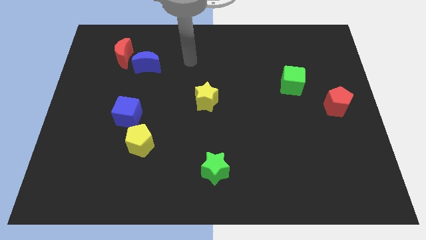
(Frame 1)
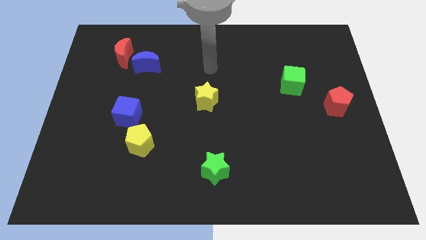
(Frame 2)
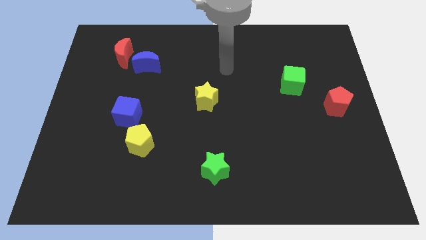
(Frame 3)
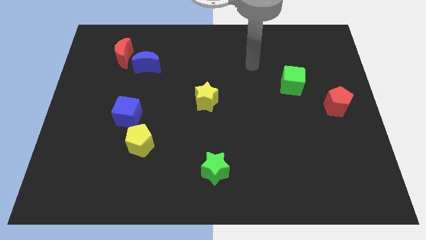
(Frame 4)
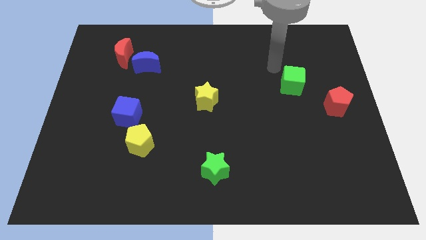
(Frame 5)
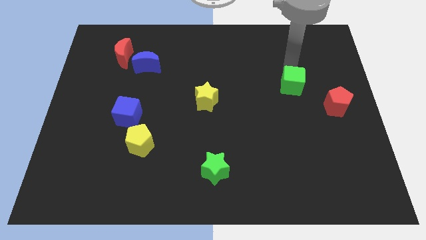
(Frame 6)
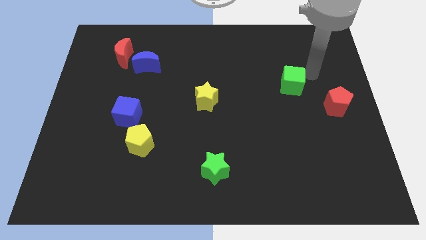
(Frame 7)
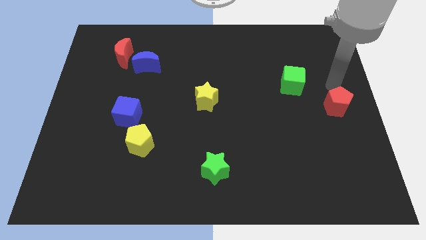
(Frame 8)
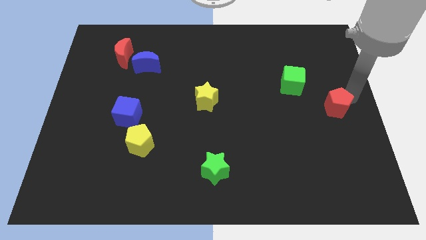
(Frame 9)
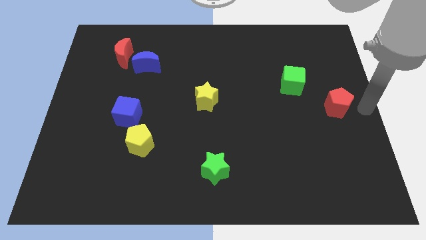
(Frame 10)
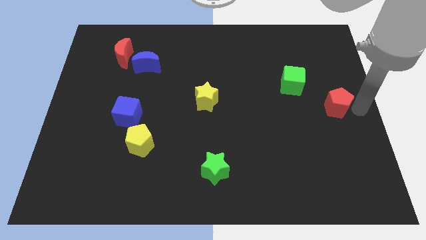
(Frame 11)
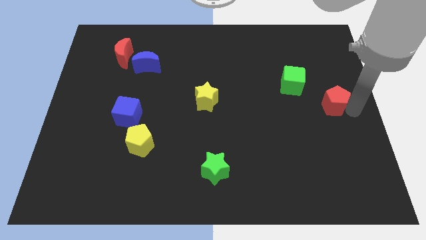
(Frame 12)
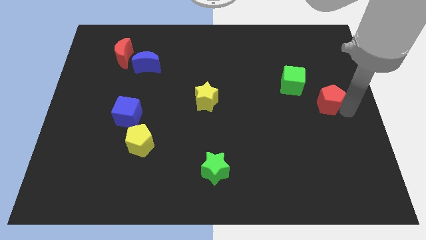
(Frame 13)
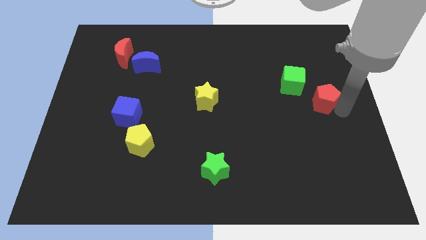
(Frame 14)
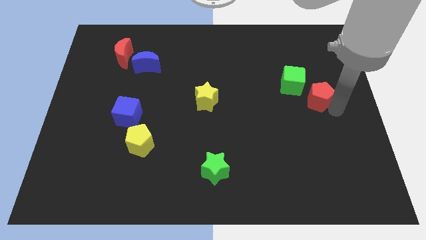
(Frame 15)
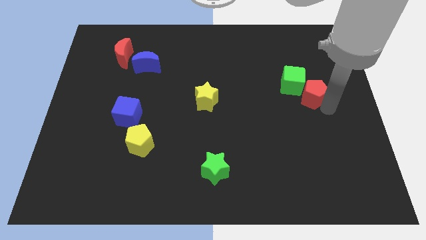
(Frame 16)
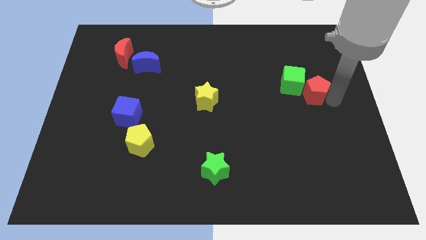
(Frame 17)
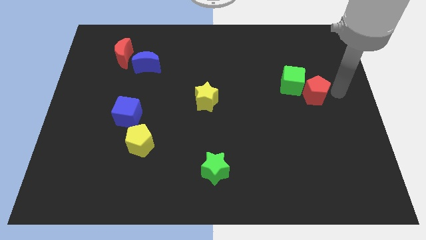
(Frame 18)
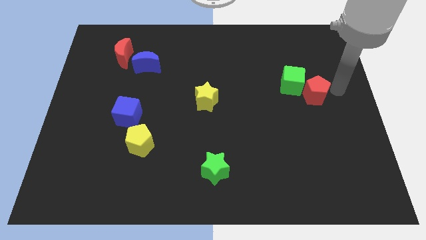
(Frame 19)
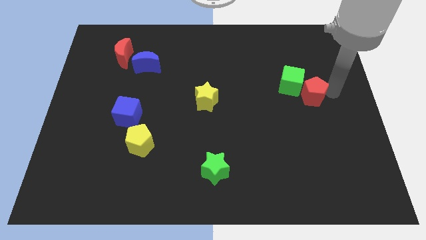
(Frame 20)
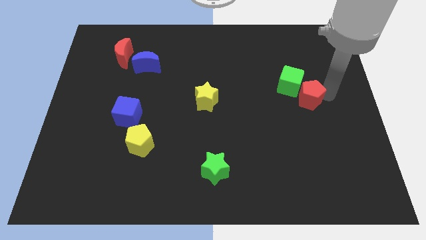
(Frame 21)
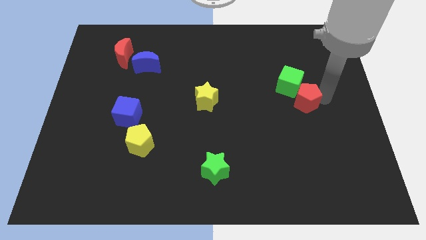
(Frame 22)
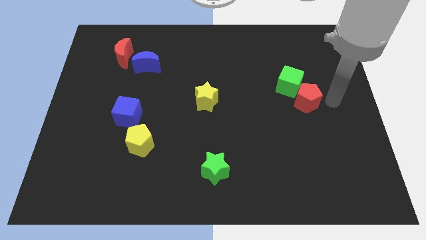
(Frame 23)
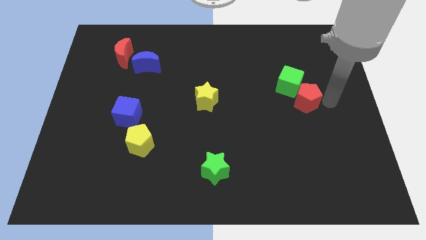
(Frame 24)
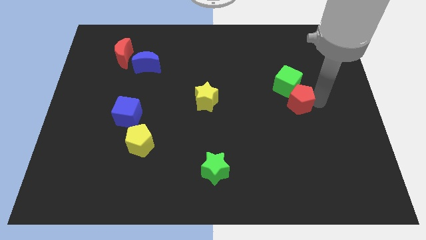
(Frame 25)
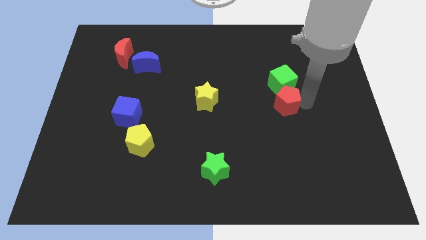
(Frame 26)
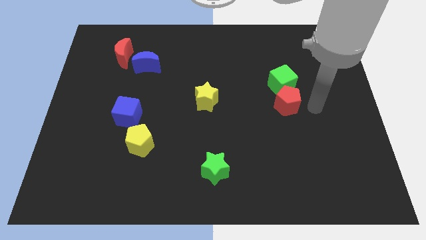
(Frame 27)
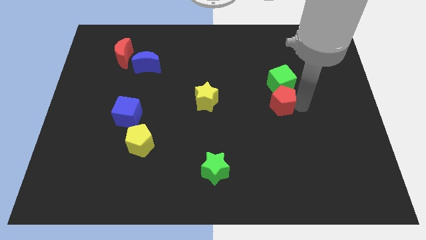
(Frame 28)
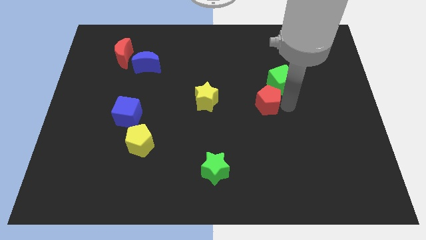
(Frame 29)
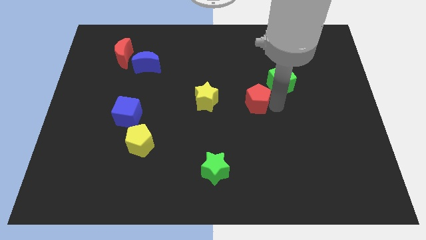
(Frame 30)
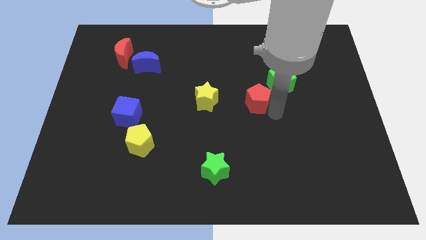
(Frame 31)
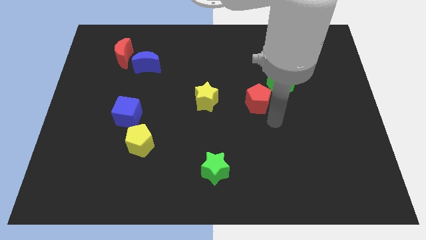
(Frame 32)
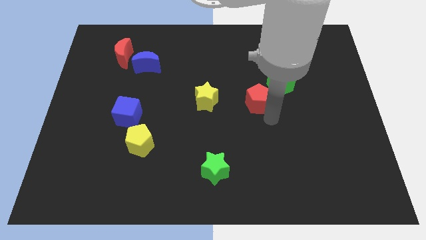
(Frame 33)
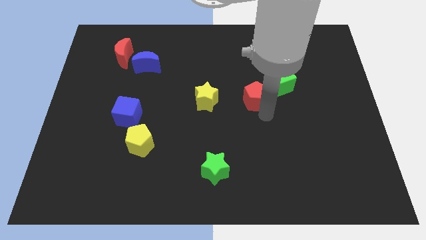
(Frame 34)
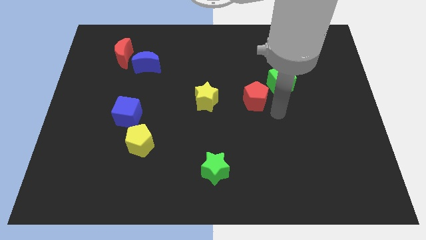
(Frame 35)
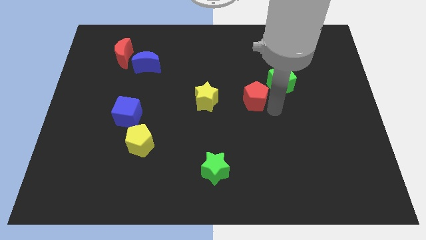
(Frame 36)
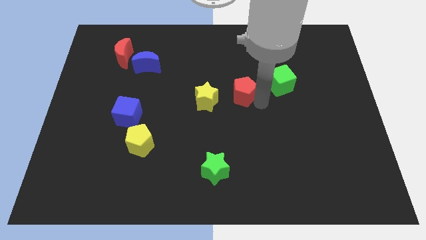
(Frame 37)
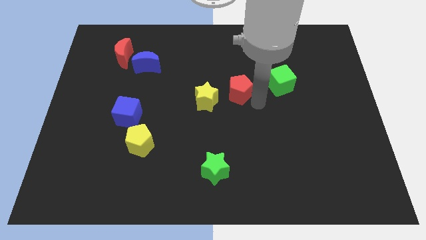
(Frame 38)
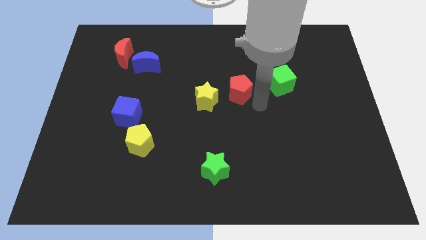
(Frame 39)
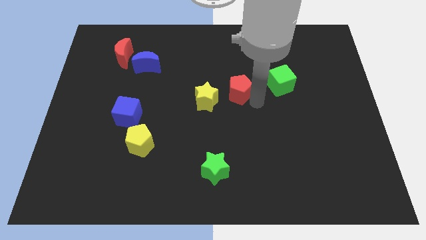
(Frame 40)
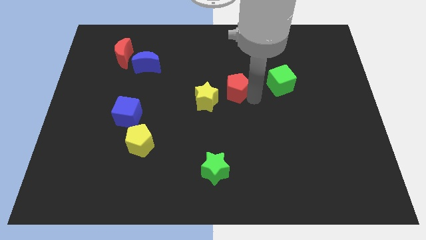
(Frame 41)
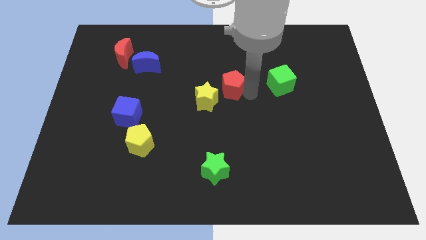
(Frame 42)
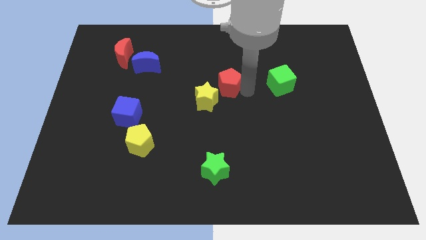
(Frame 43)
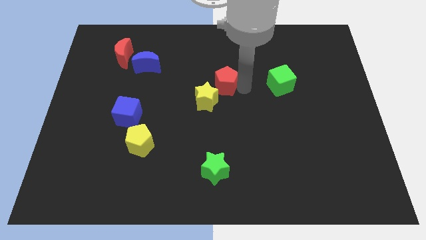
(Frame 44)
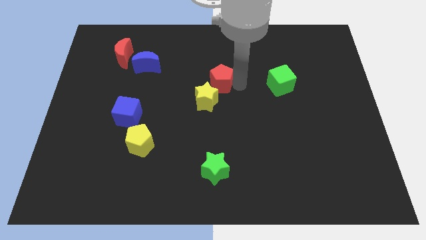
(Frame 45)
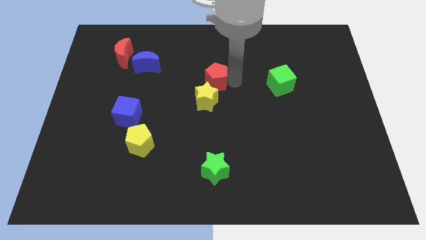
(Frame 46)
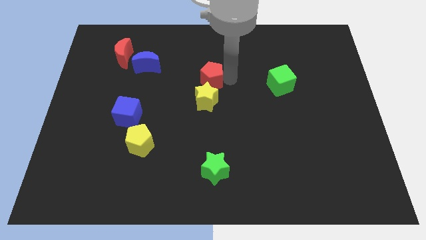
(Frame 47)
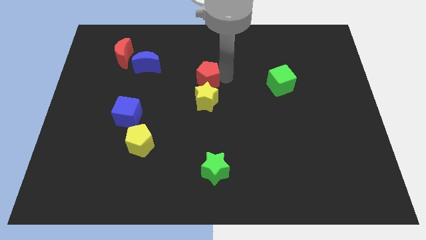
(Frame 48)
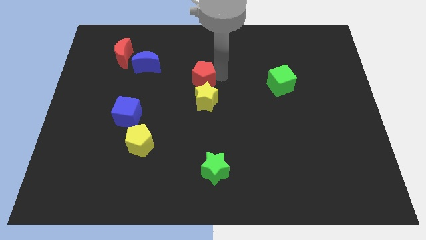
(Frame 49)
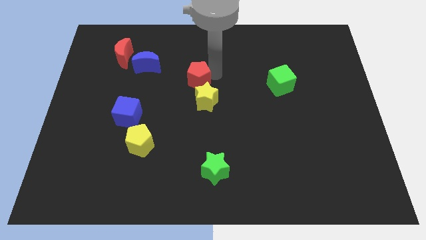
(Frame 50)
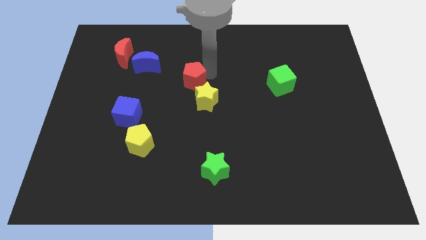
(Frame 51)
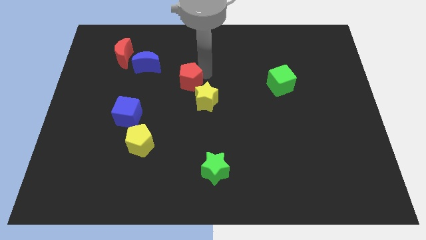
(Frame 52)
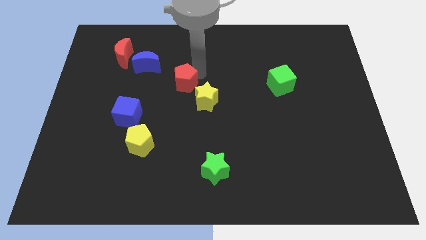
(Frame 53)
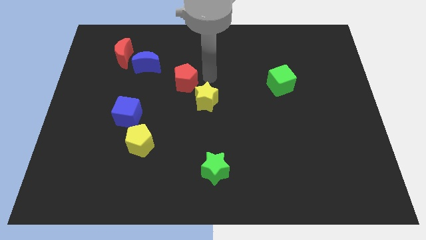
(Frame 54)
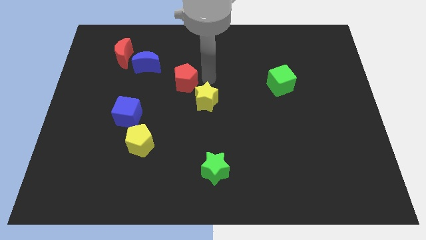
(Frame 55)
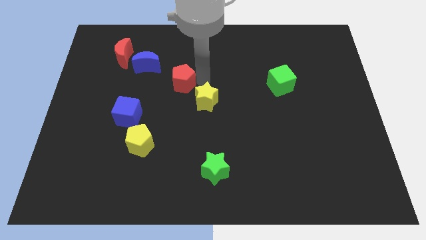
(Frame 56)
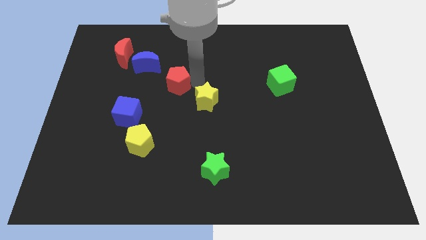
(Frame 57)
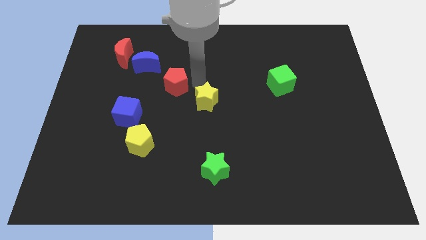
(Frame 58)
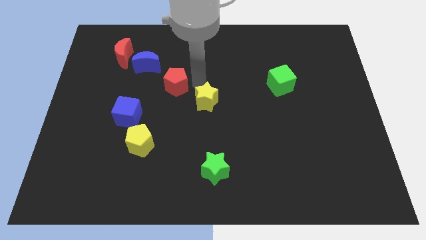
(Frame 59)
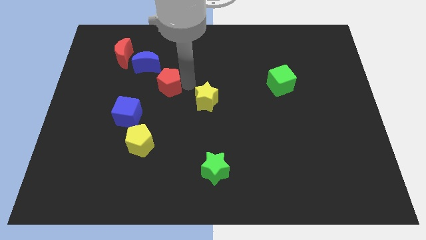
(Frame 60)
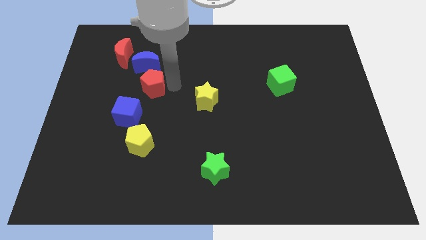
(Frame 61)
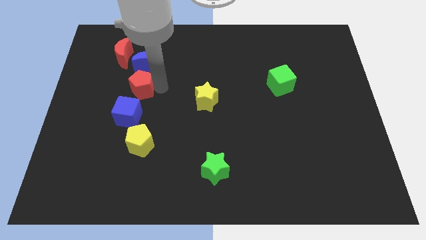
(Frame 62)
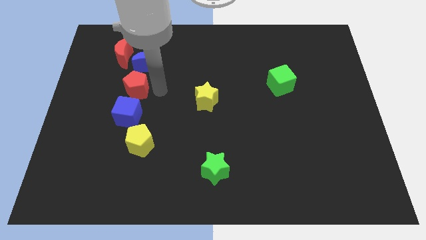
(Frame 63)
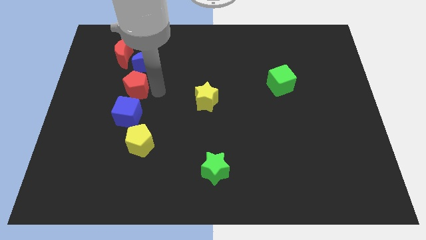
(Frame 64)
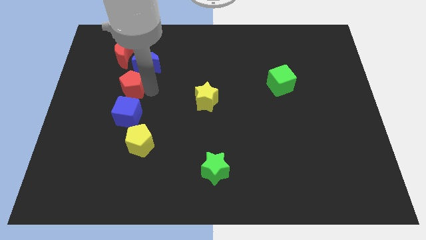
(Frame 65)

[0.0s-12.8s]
move the red pentagon to the bottom side of the red moon

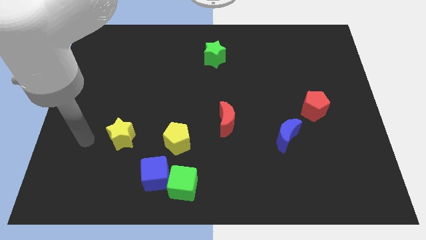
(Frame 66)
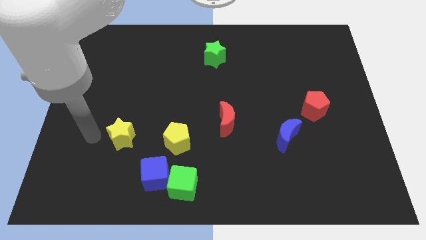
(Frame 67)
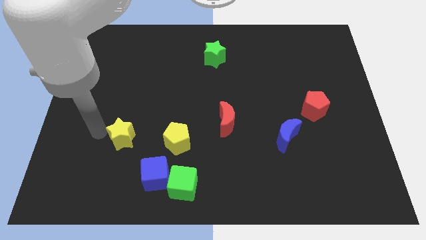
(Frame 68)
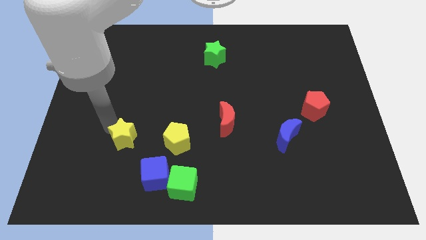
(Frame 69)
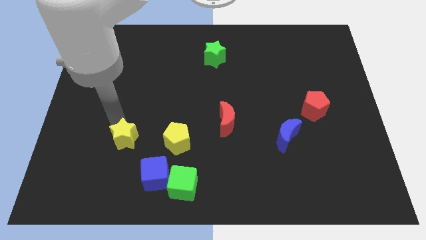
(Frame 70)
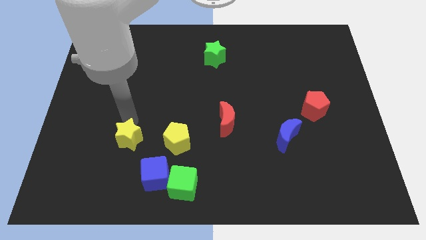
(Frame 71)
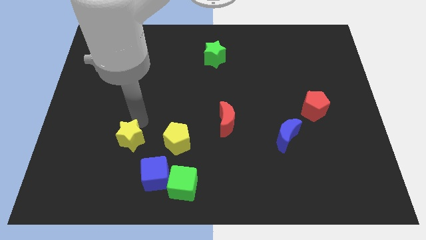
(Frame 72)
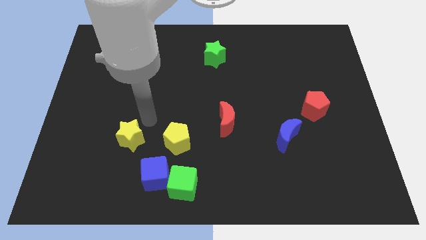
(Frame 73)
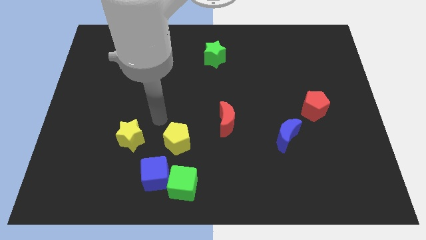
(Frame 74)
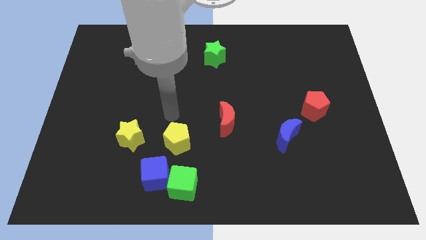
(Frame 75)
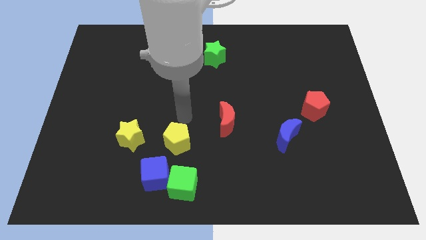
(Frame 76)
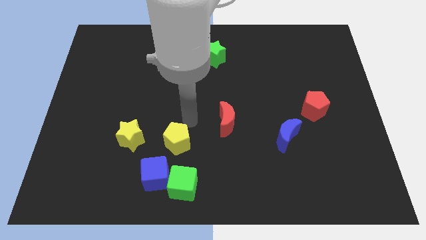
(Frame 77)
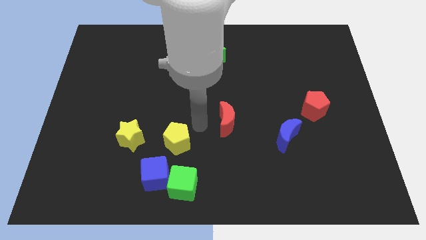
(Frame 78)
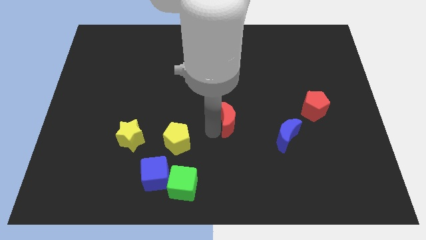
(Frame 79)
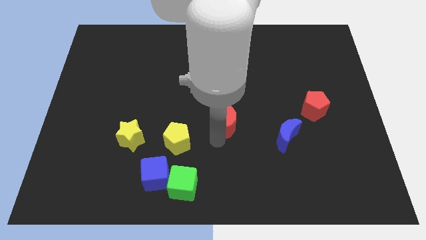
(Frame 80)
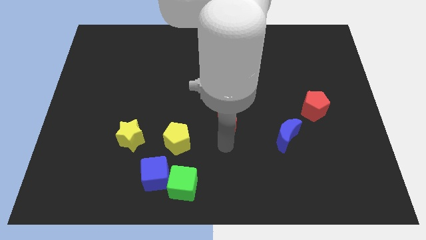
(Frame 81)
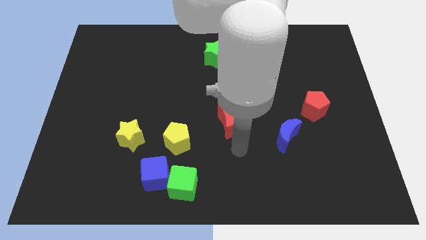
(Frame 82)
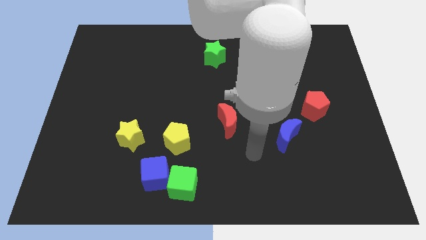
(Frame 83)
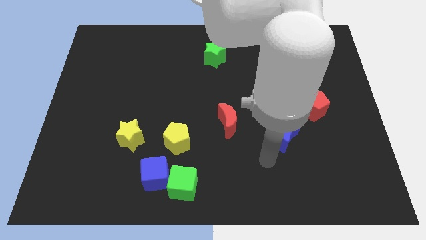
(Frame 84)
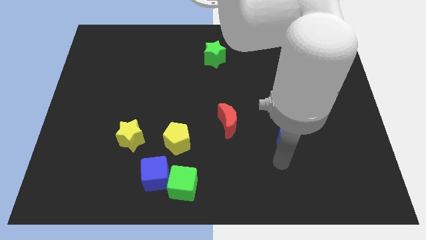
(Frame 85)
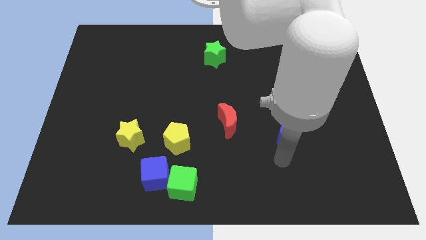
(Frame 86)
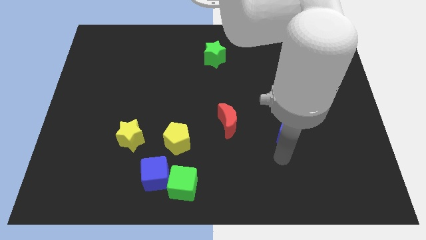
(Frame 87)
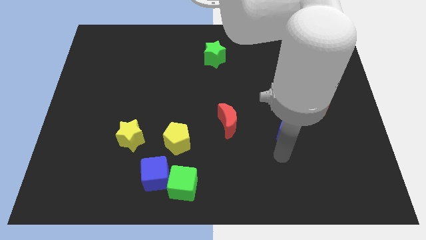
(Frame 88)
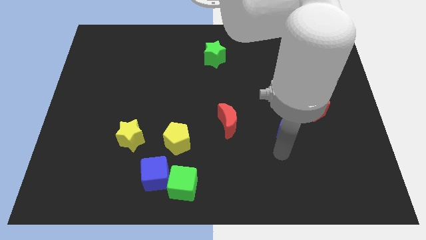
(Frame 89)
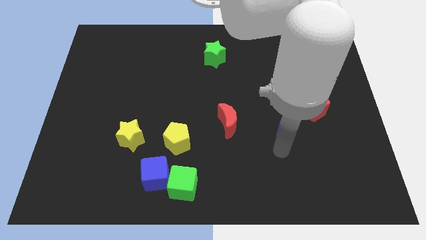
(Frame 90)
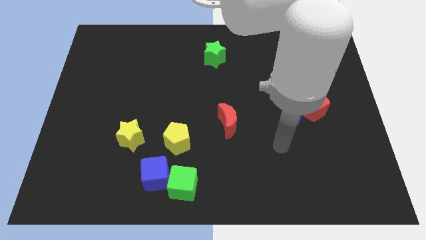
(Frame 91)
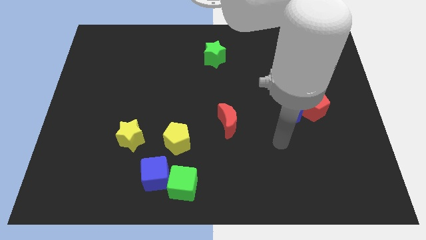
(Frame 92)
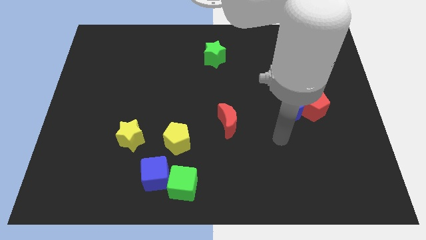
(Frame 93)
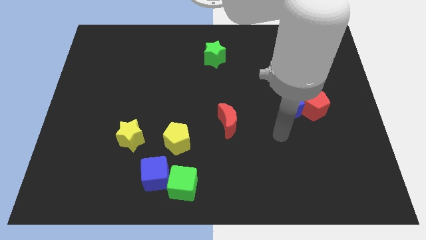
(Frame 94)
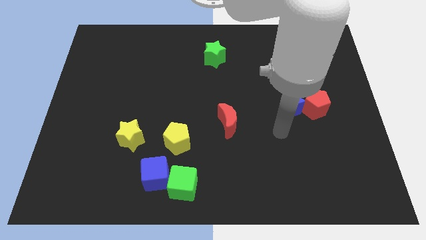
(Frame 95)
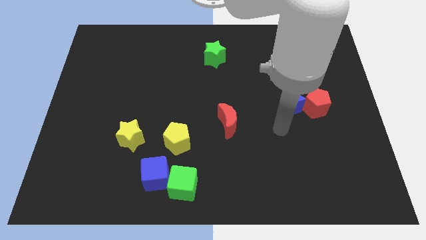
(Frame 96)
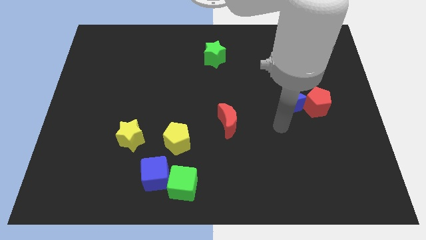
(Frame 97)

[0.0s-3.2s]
slide the blue moon diagonally up and to the left of the red pentagon
